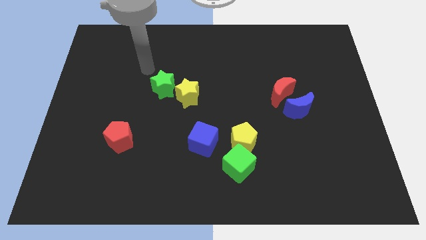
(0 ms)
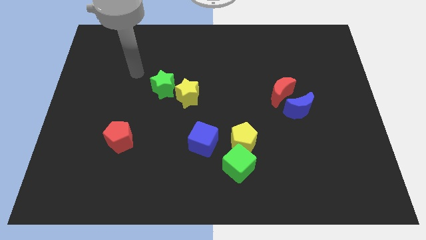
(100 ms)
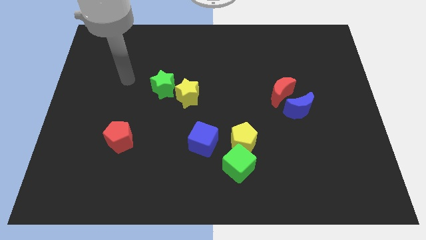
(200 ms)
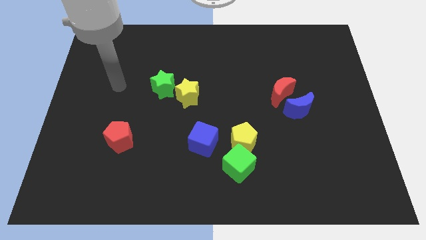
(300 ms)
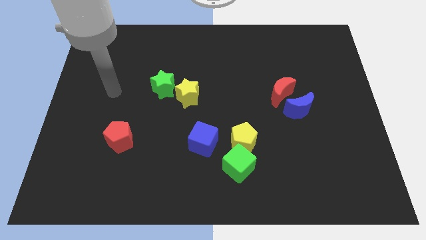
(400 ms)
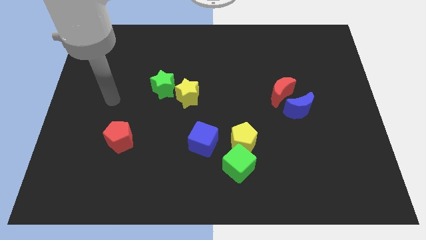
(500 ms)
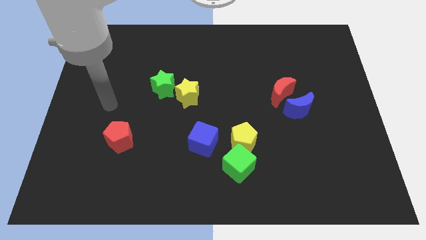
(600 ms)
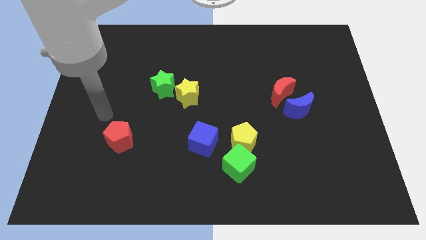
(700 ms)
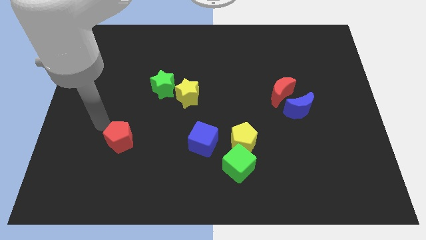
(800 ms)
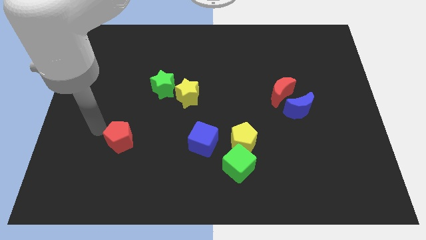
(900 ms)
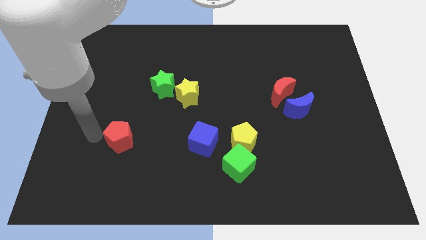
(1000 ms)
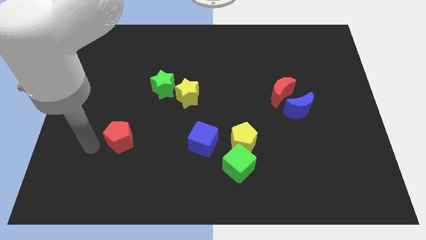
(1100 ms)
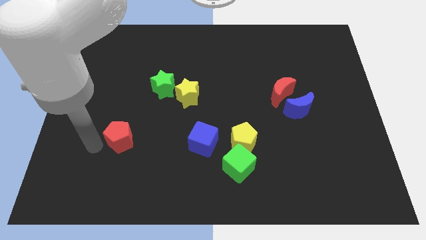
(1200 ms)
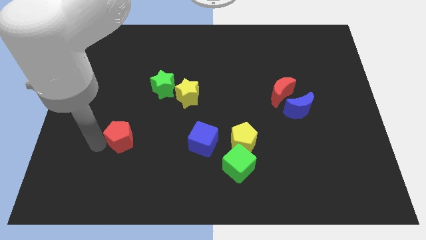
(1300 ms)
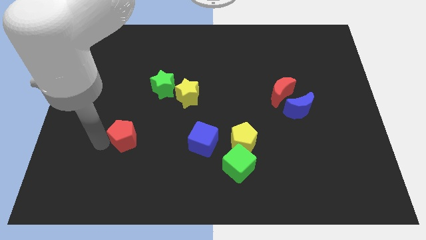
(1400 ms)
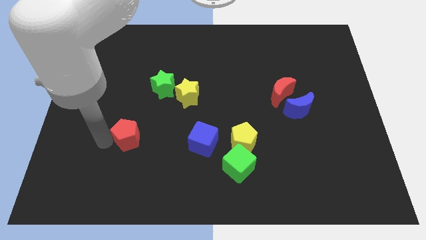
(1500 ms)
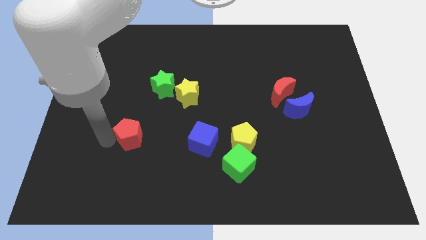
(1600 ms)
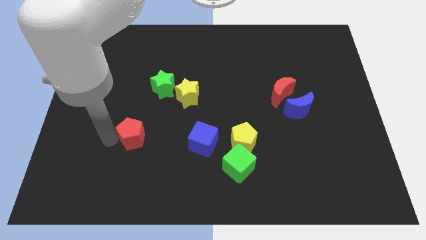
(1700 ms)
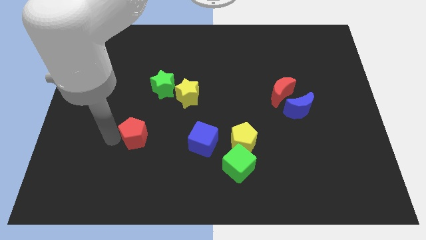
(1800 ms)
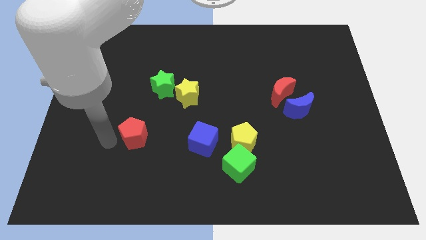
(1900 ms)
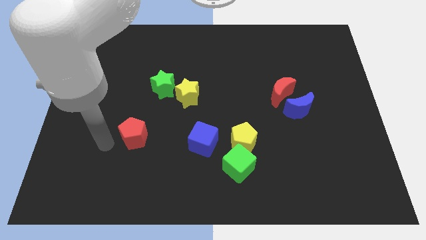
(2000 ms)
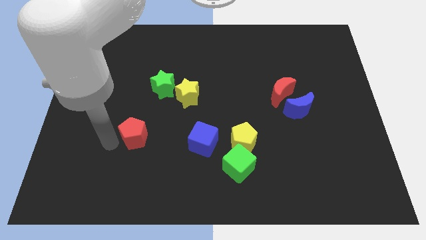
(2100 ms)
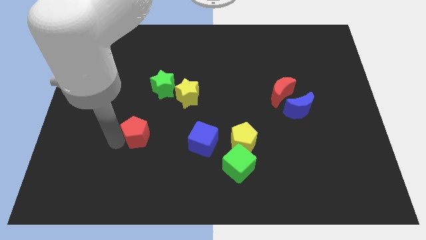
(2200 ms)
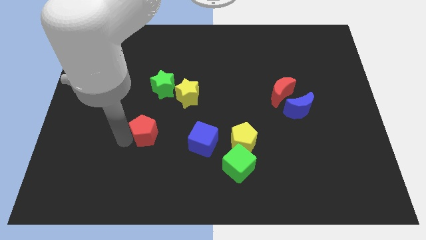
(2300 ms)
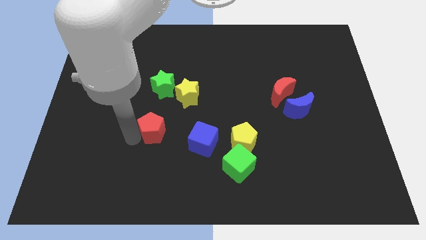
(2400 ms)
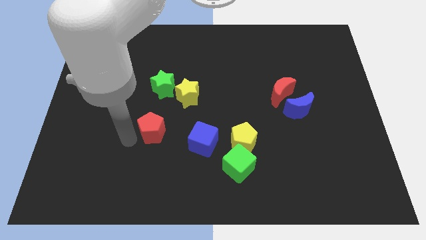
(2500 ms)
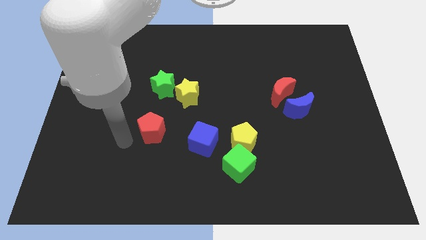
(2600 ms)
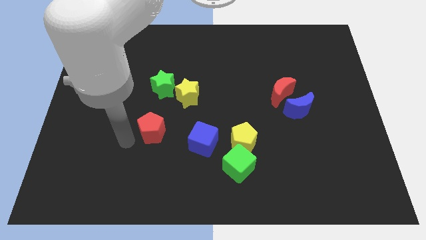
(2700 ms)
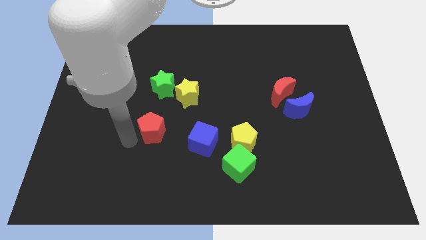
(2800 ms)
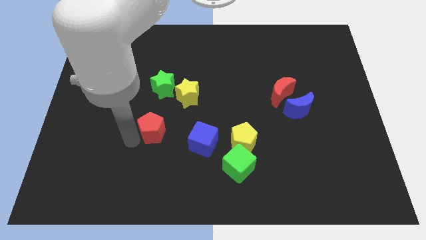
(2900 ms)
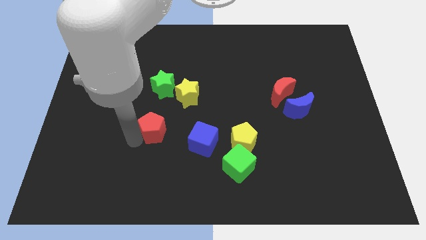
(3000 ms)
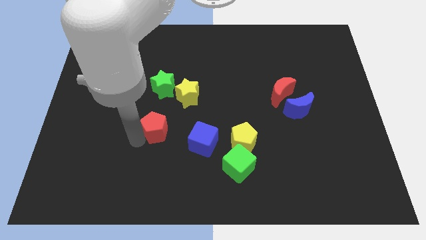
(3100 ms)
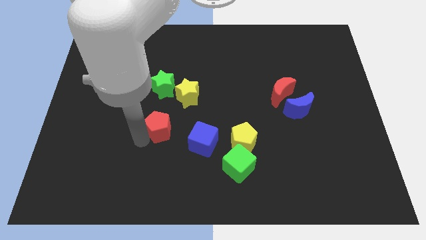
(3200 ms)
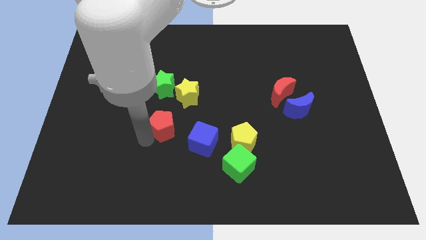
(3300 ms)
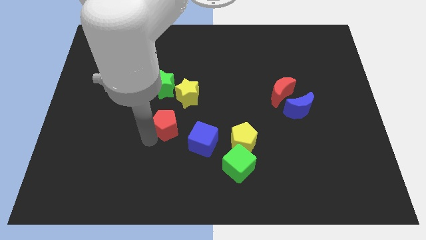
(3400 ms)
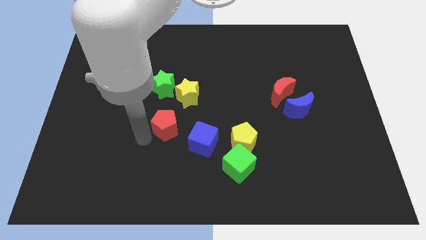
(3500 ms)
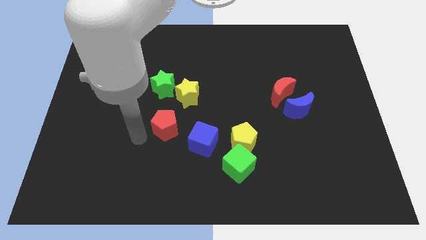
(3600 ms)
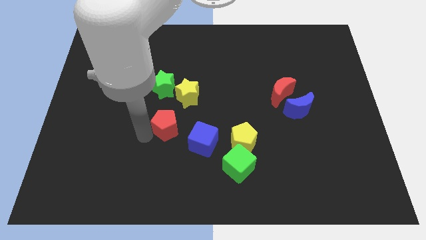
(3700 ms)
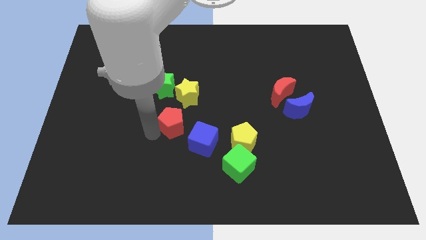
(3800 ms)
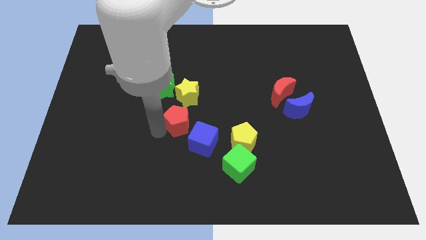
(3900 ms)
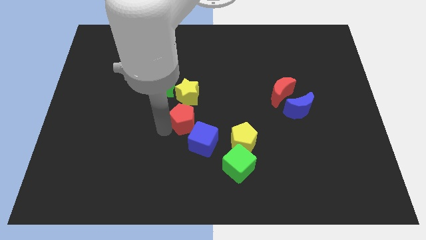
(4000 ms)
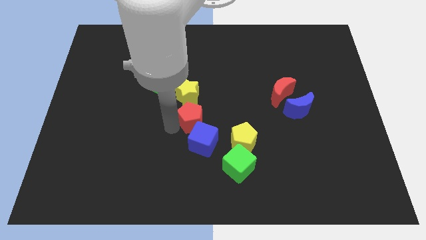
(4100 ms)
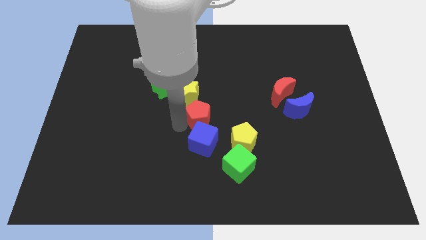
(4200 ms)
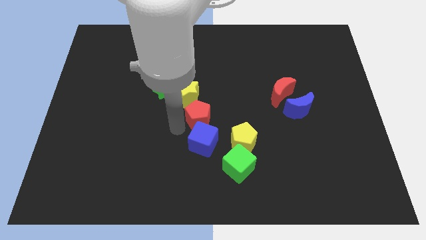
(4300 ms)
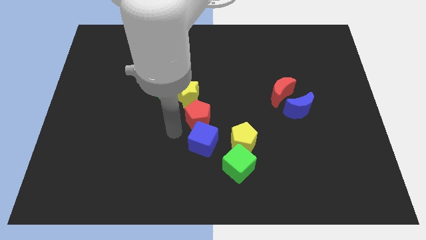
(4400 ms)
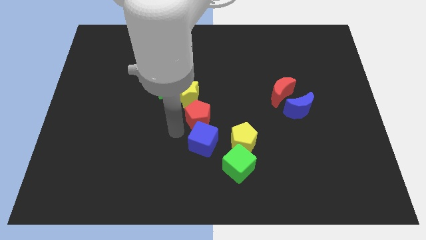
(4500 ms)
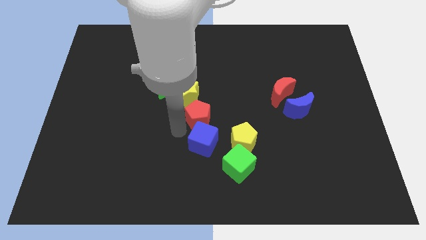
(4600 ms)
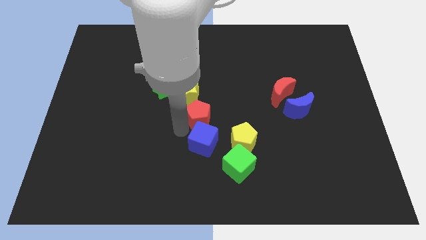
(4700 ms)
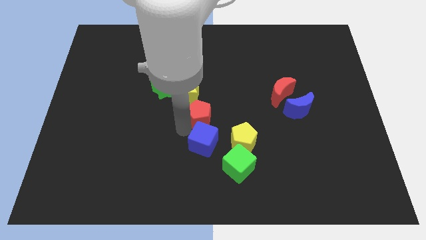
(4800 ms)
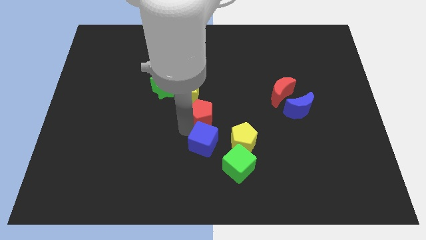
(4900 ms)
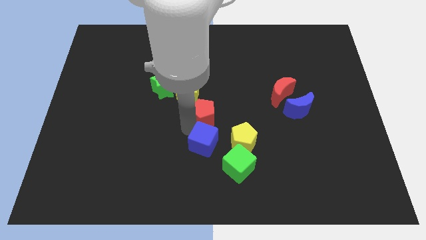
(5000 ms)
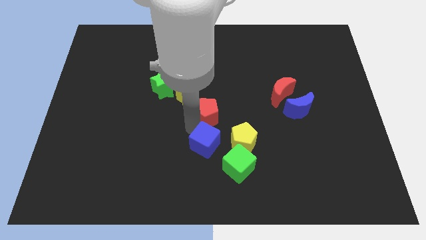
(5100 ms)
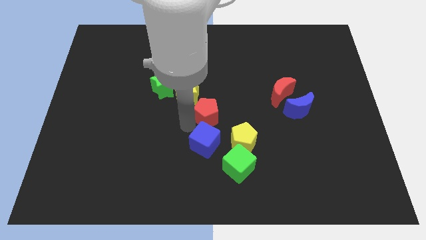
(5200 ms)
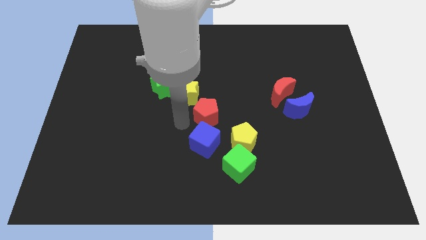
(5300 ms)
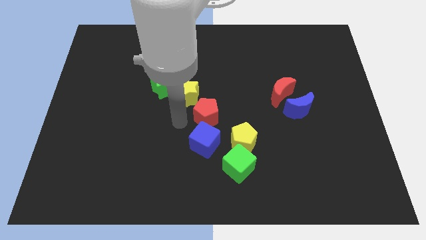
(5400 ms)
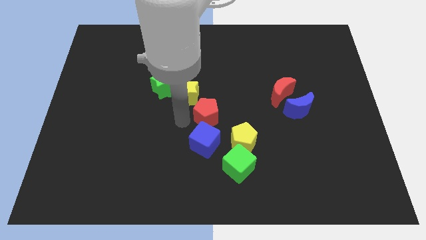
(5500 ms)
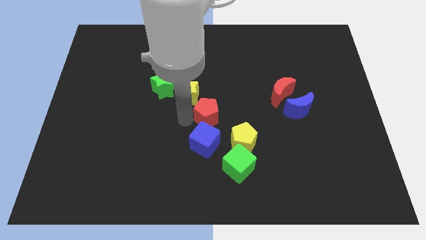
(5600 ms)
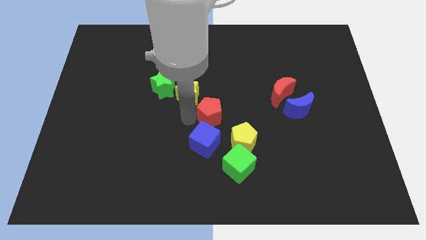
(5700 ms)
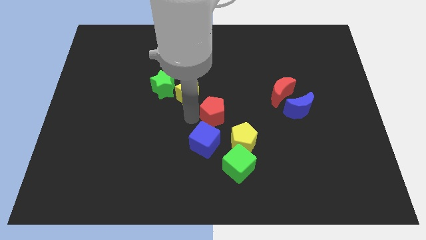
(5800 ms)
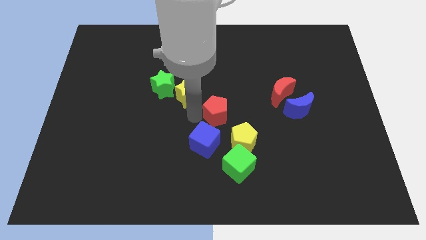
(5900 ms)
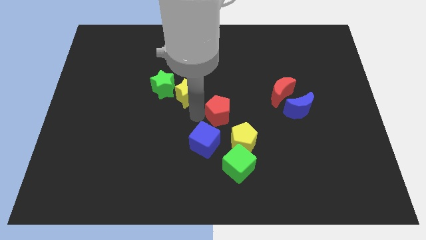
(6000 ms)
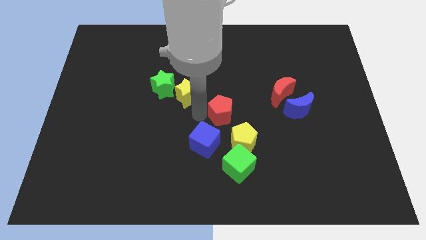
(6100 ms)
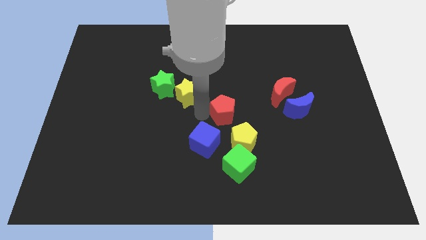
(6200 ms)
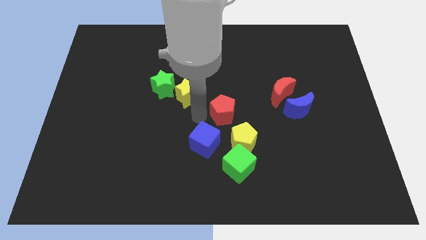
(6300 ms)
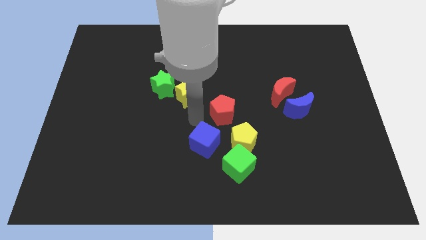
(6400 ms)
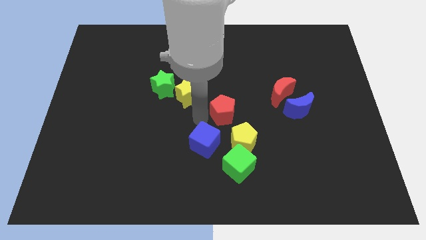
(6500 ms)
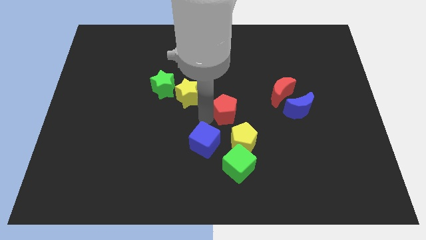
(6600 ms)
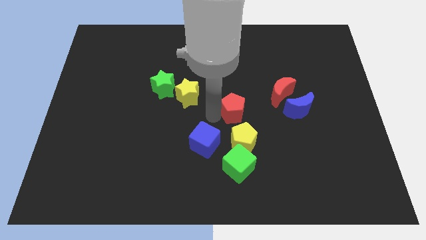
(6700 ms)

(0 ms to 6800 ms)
slide the red pentagon to the left of the blue moon
